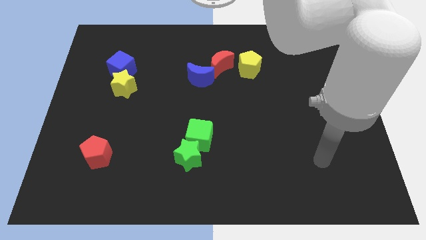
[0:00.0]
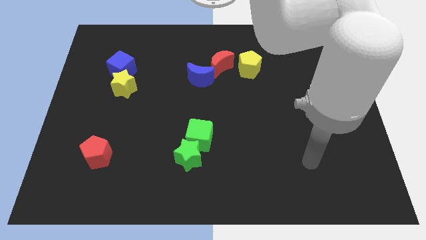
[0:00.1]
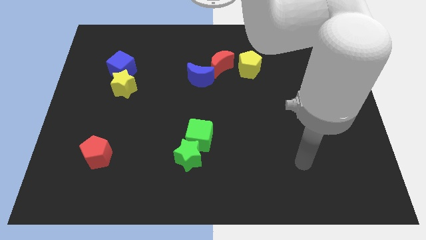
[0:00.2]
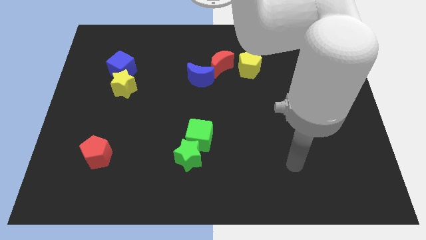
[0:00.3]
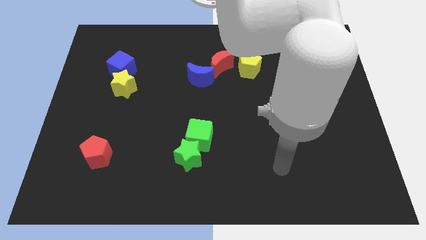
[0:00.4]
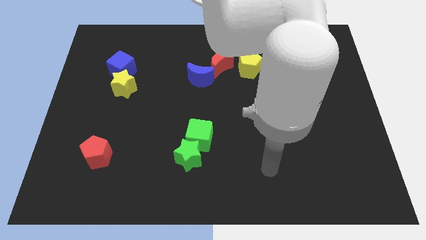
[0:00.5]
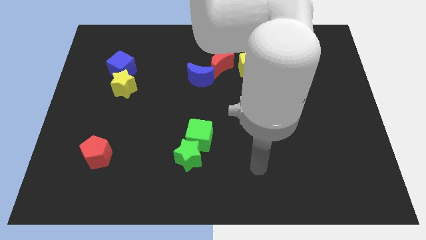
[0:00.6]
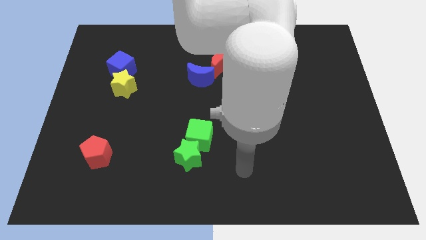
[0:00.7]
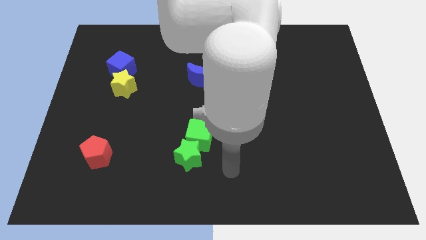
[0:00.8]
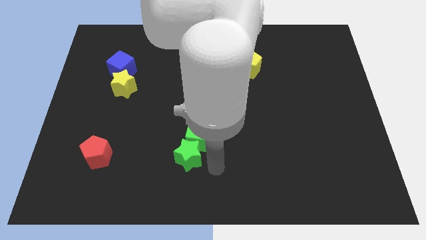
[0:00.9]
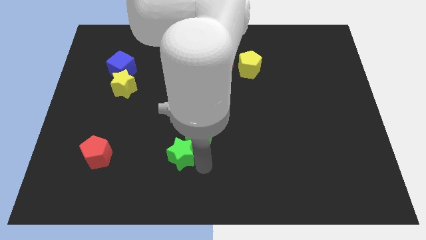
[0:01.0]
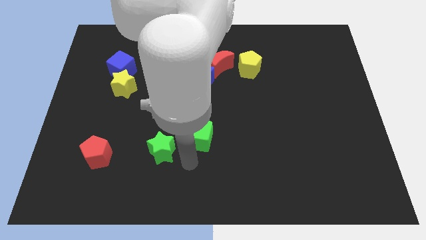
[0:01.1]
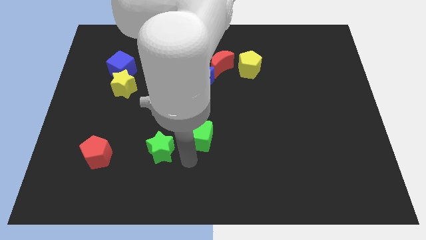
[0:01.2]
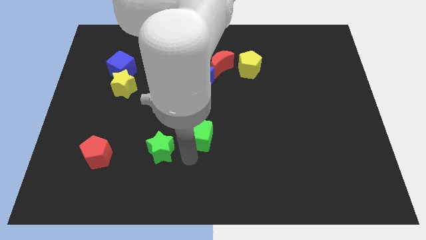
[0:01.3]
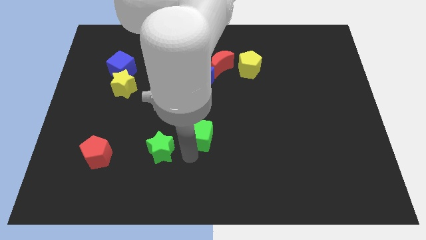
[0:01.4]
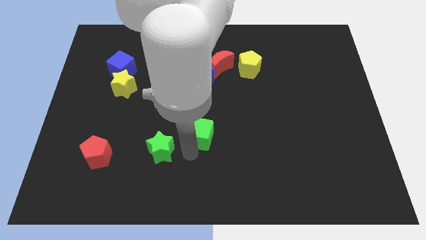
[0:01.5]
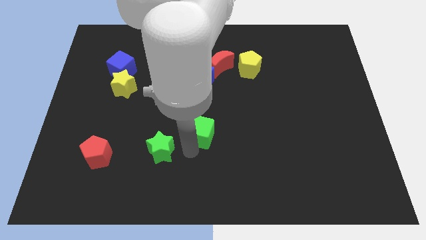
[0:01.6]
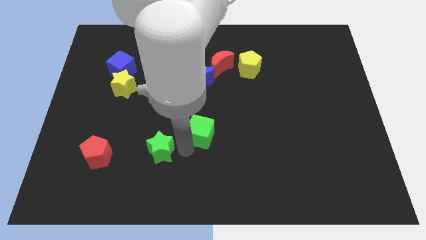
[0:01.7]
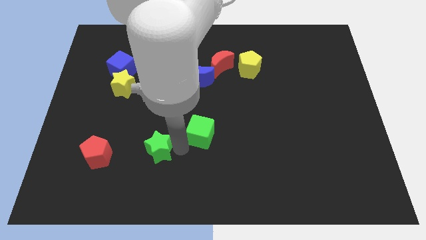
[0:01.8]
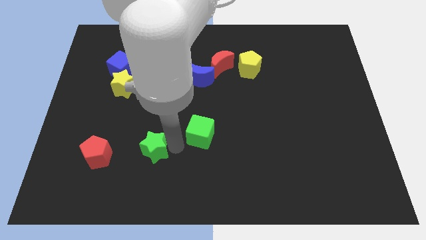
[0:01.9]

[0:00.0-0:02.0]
separate the green cube from the green star

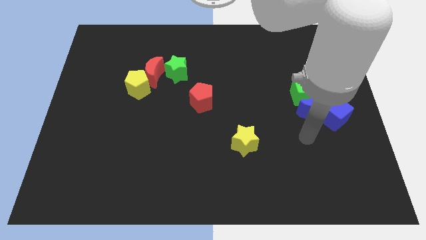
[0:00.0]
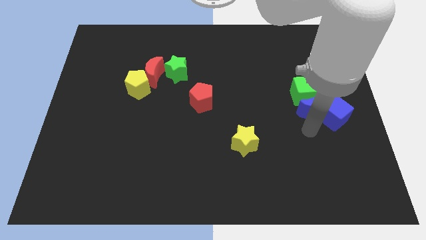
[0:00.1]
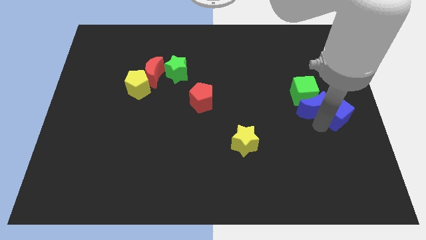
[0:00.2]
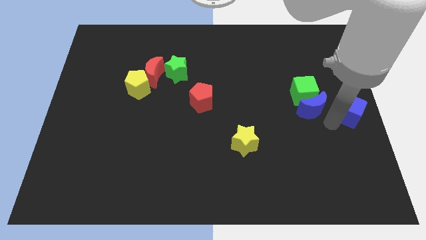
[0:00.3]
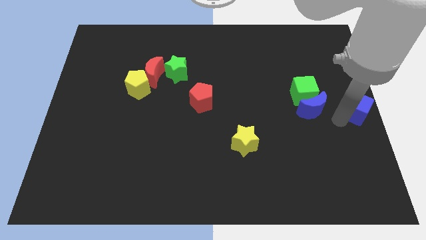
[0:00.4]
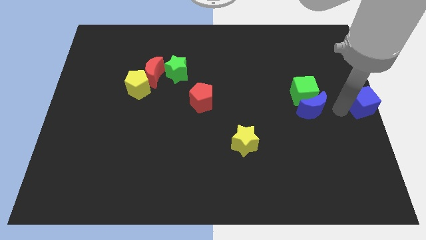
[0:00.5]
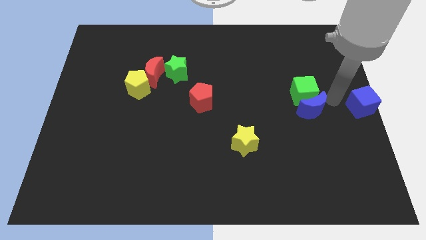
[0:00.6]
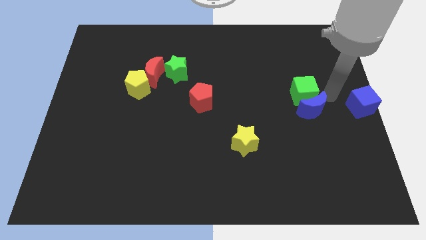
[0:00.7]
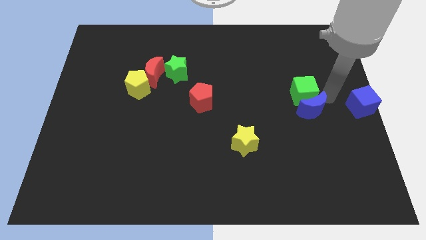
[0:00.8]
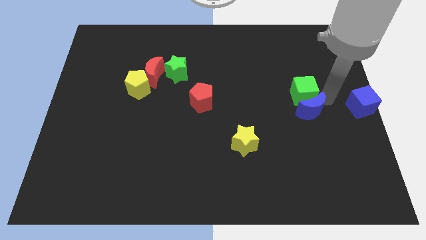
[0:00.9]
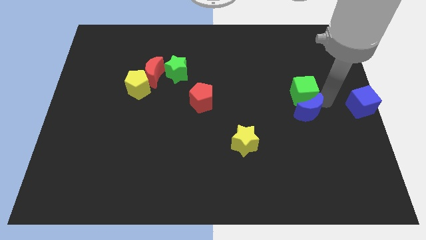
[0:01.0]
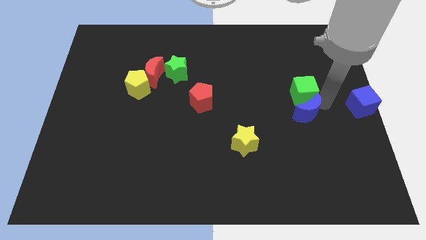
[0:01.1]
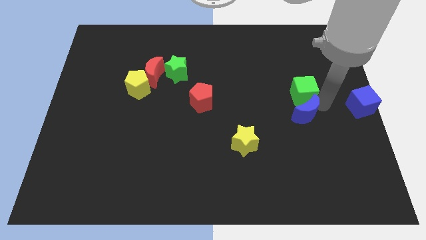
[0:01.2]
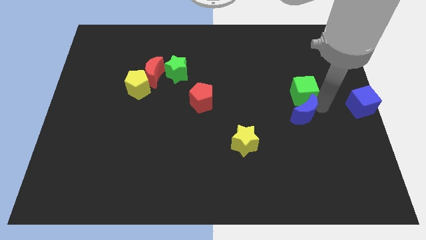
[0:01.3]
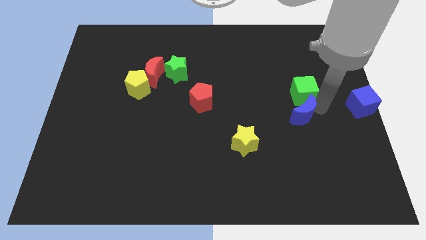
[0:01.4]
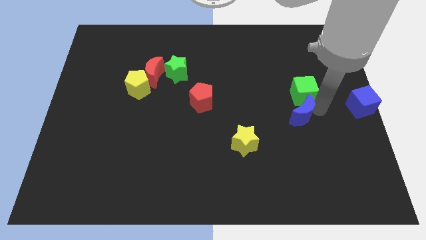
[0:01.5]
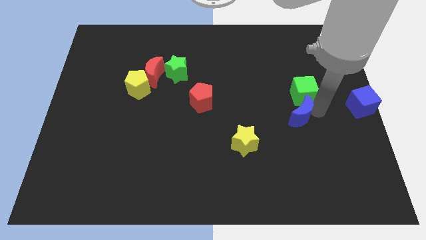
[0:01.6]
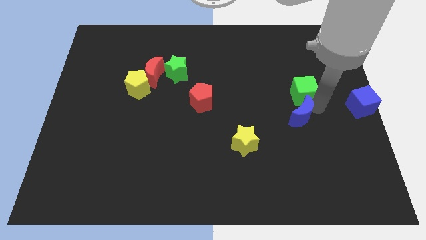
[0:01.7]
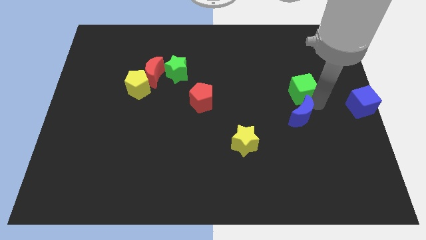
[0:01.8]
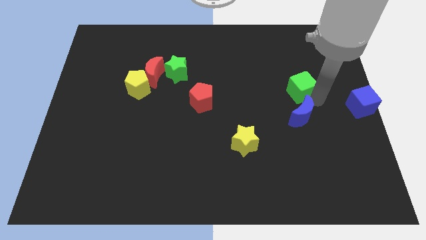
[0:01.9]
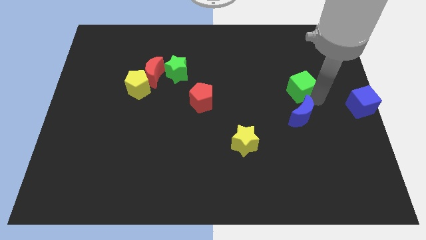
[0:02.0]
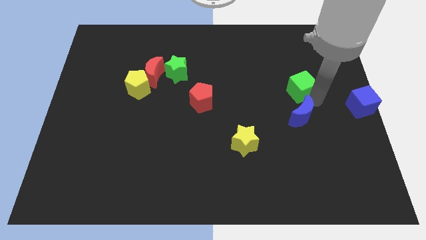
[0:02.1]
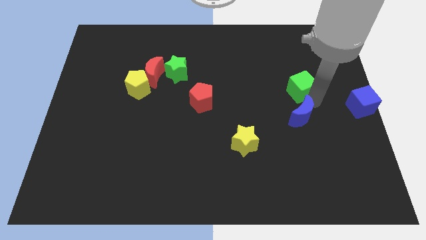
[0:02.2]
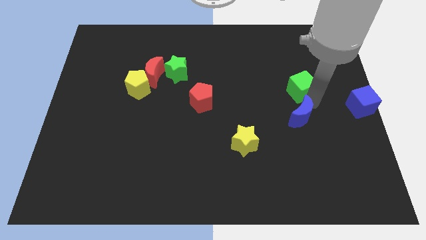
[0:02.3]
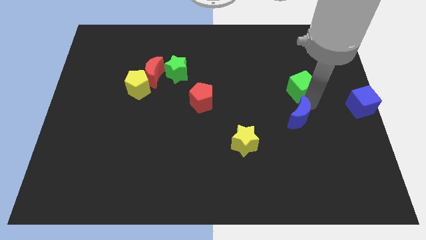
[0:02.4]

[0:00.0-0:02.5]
move the blue moon away from the blue cube and green cube

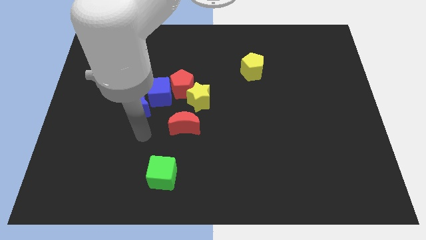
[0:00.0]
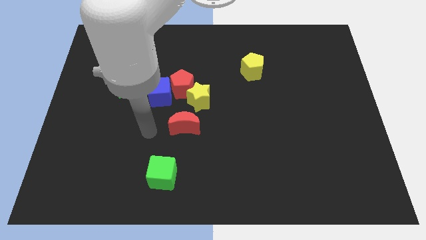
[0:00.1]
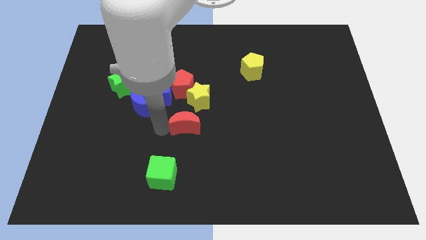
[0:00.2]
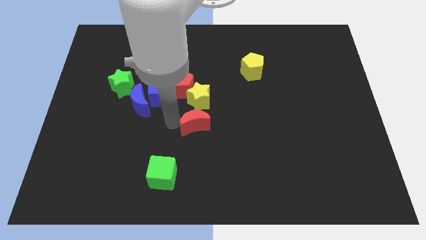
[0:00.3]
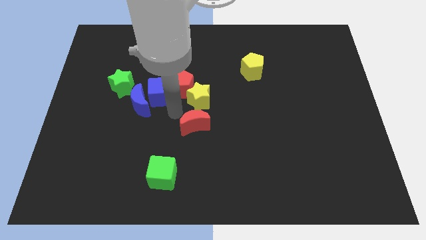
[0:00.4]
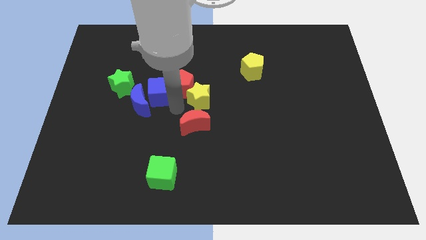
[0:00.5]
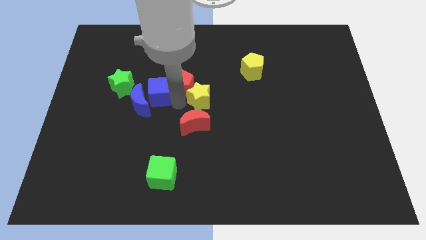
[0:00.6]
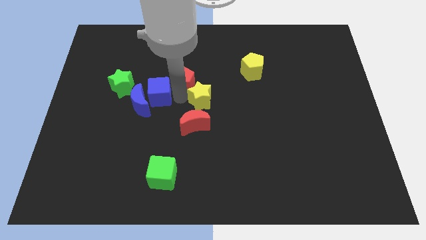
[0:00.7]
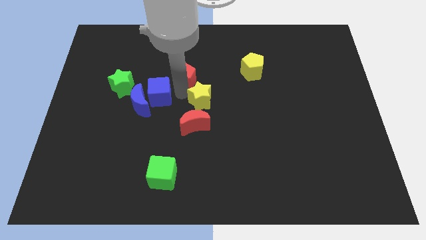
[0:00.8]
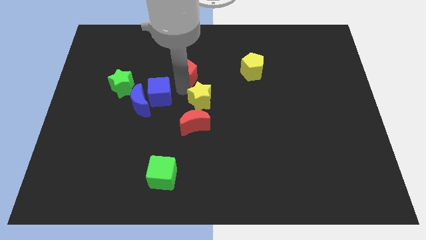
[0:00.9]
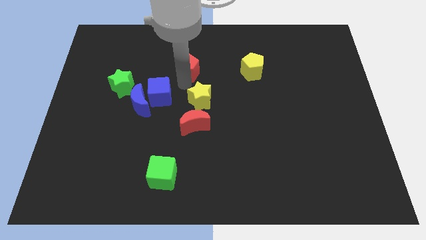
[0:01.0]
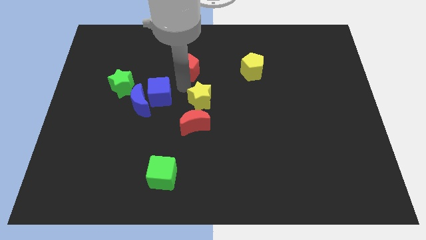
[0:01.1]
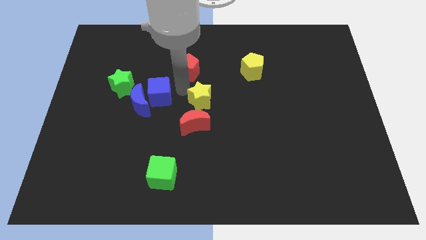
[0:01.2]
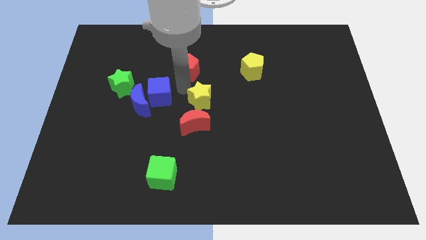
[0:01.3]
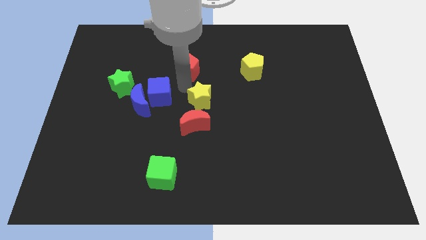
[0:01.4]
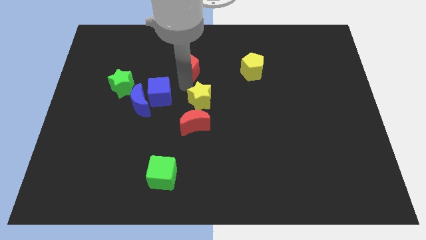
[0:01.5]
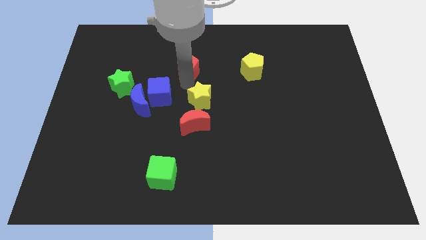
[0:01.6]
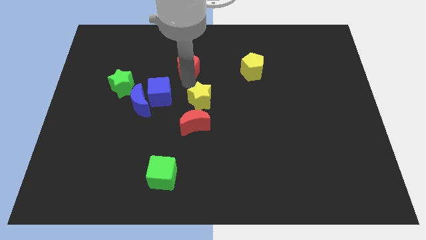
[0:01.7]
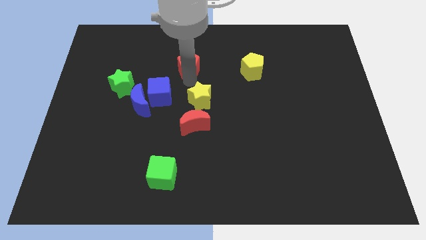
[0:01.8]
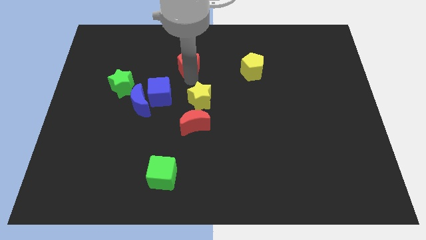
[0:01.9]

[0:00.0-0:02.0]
separate the red pentagon from the yellow star and blue cube

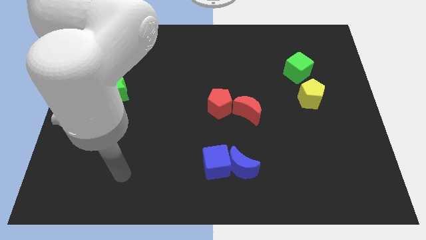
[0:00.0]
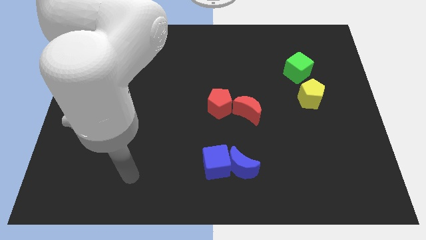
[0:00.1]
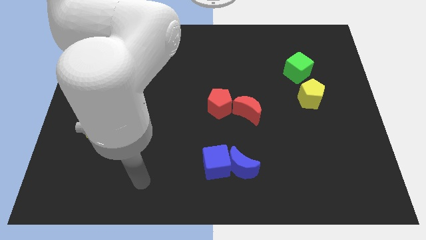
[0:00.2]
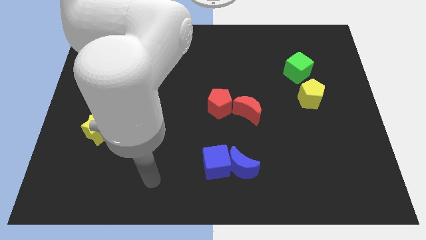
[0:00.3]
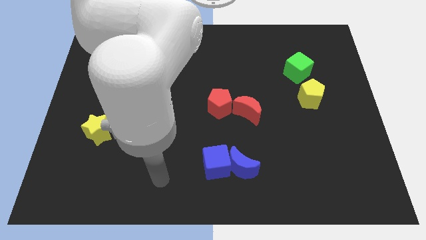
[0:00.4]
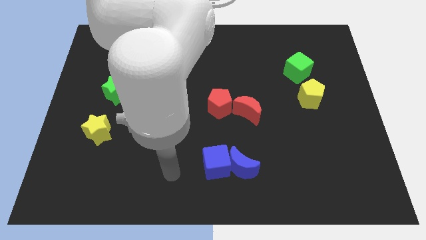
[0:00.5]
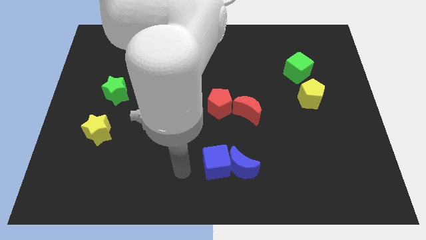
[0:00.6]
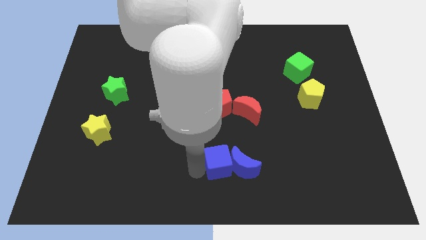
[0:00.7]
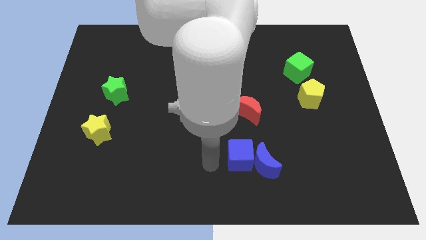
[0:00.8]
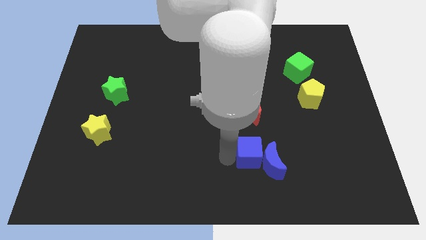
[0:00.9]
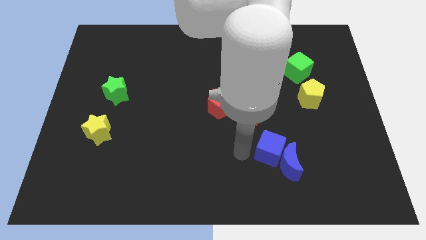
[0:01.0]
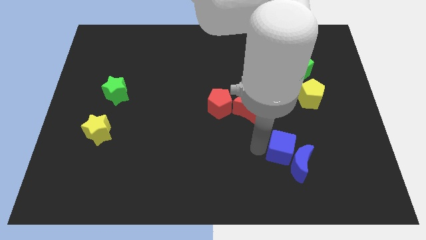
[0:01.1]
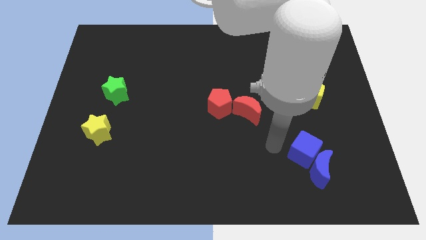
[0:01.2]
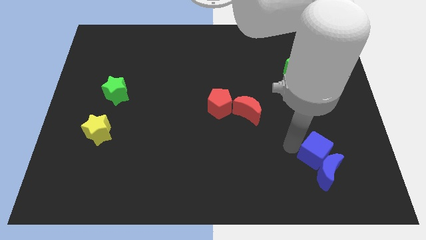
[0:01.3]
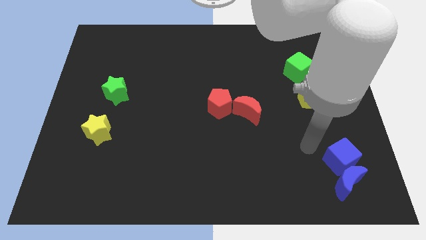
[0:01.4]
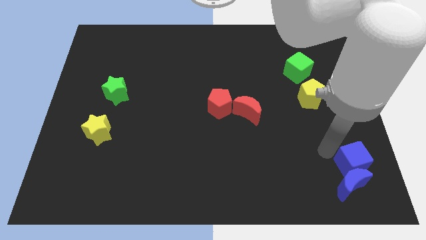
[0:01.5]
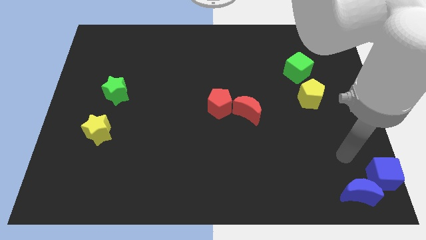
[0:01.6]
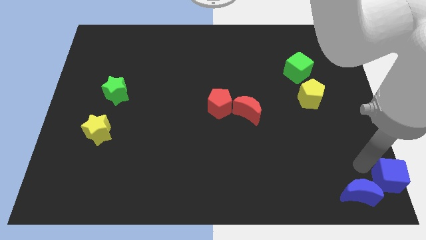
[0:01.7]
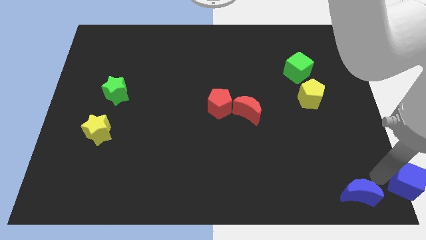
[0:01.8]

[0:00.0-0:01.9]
move the blue moon away from the blue cube

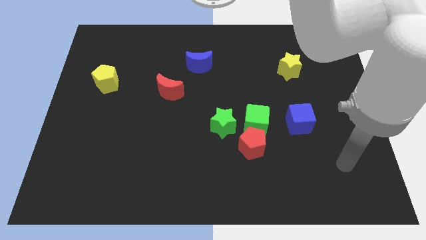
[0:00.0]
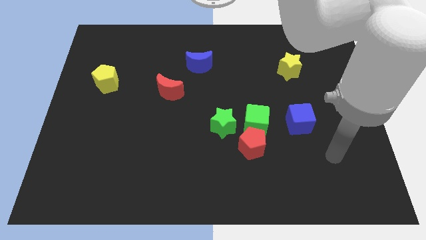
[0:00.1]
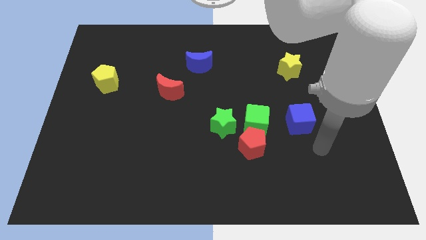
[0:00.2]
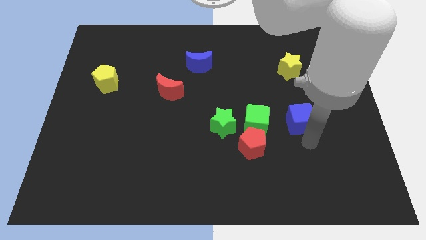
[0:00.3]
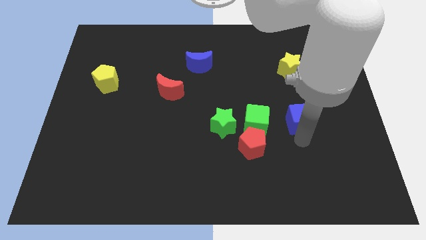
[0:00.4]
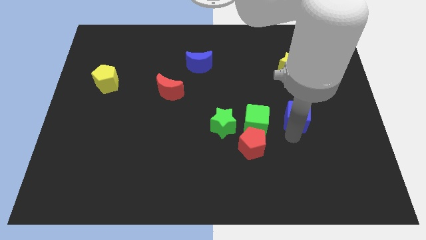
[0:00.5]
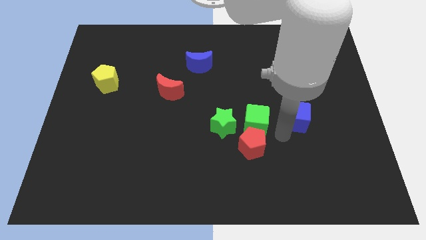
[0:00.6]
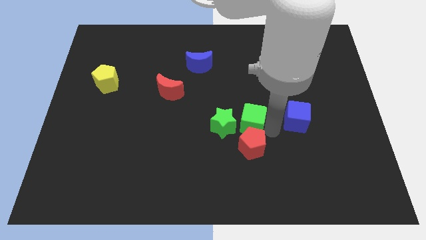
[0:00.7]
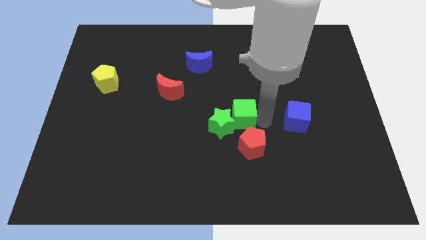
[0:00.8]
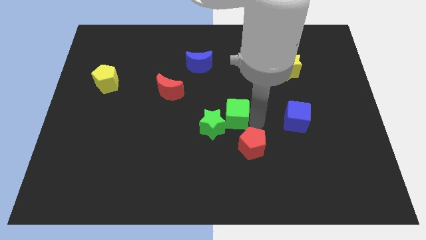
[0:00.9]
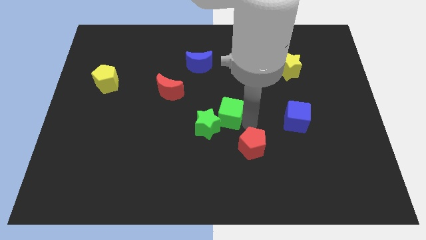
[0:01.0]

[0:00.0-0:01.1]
move the red pentagon away from the green cube and green star
